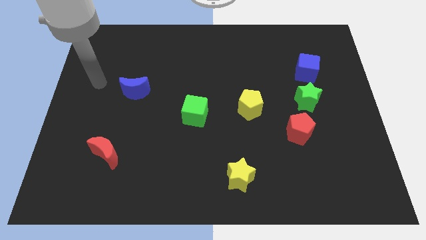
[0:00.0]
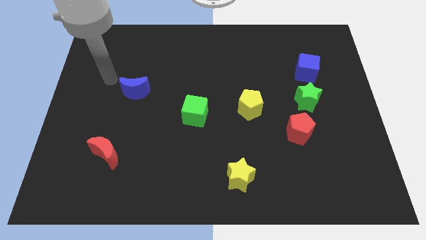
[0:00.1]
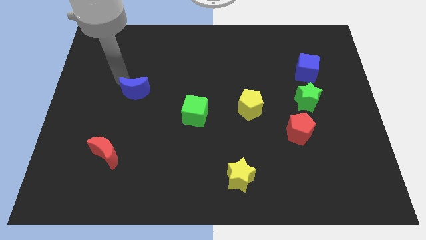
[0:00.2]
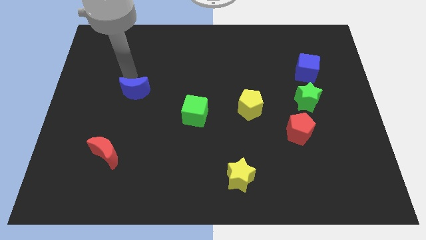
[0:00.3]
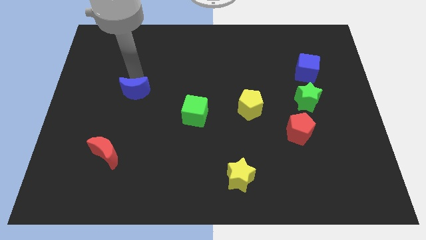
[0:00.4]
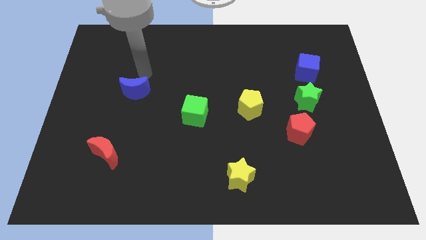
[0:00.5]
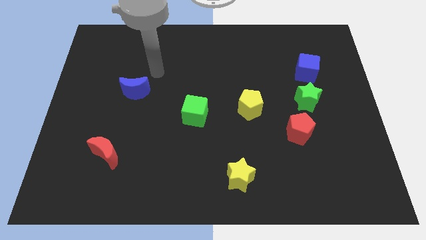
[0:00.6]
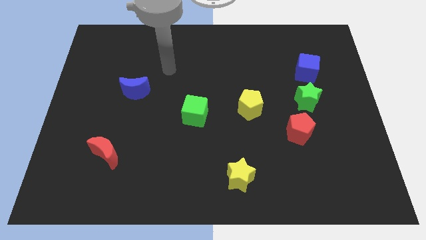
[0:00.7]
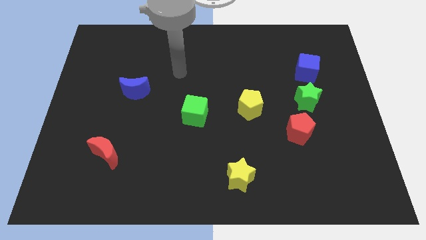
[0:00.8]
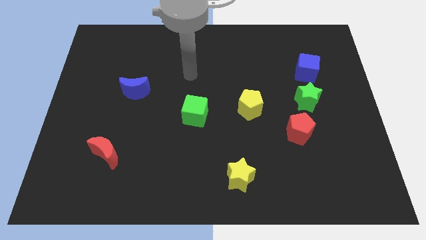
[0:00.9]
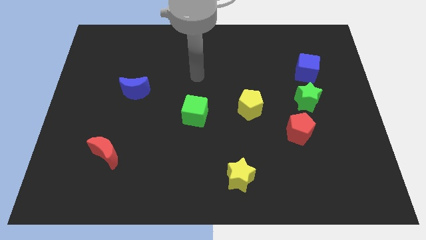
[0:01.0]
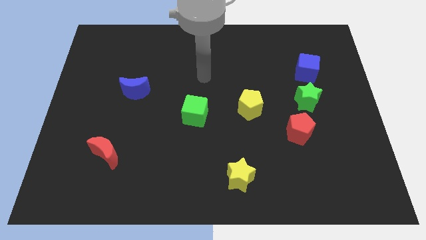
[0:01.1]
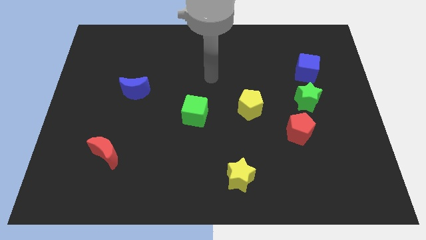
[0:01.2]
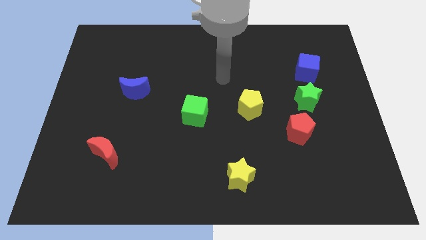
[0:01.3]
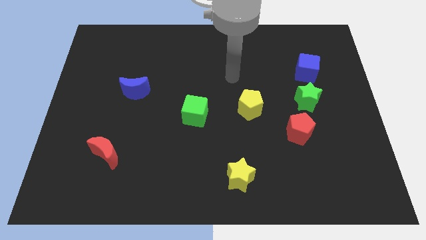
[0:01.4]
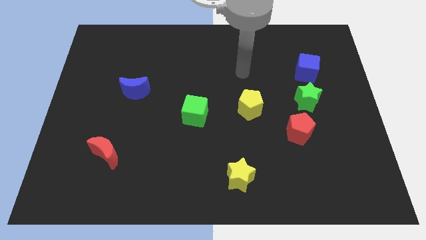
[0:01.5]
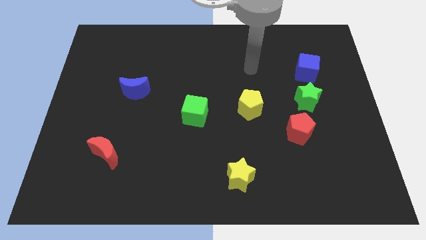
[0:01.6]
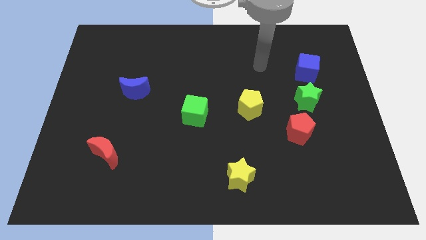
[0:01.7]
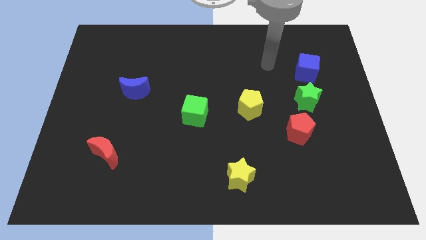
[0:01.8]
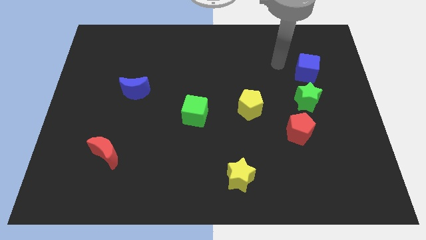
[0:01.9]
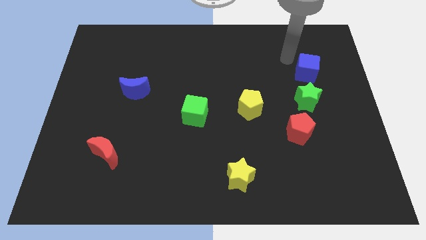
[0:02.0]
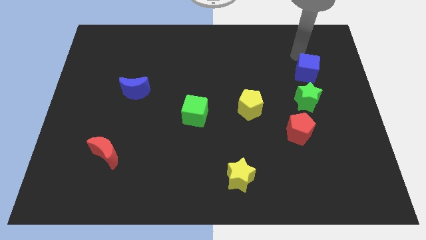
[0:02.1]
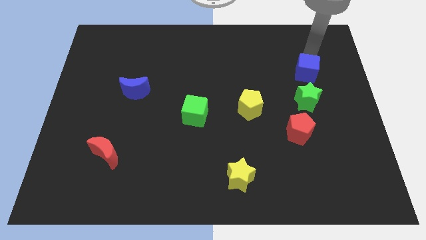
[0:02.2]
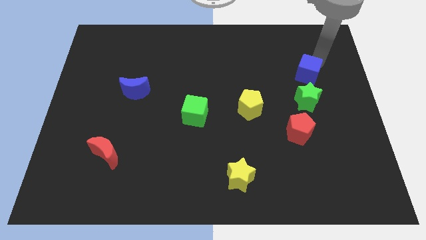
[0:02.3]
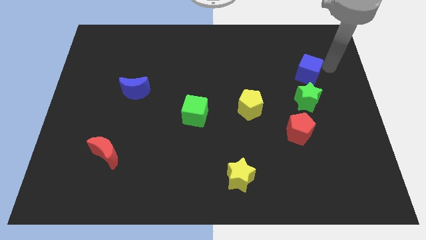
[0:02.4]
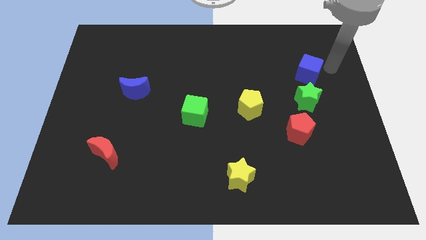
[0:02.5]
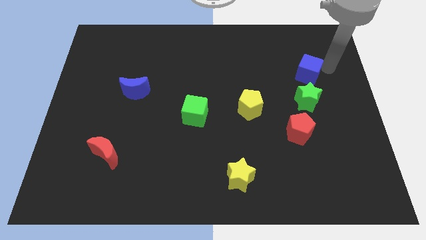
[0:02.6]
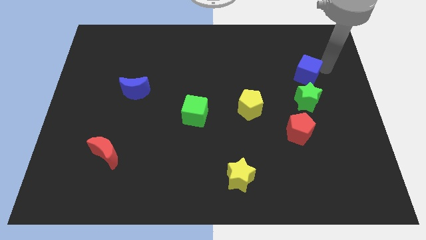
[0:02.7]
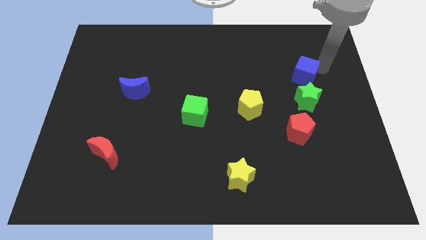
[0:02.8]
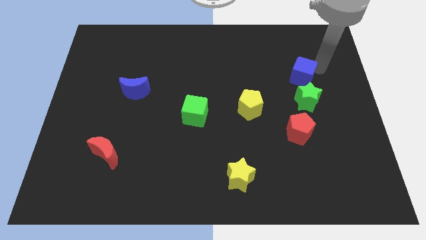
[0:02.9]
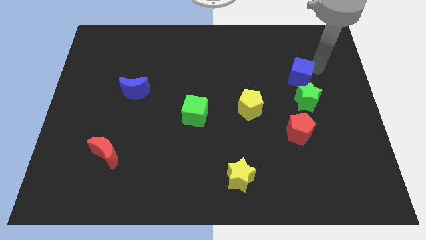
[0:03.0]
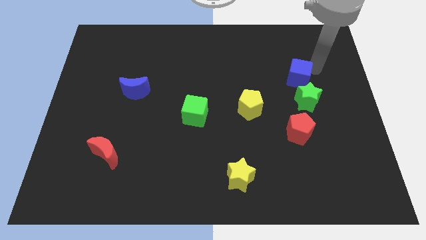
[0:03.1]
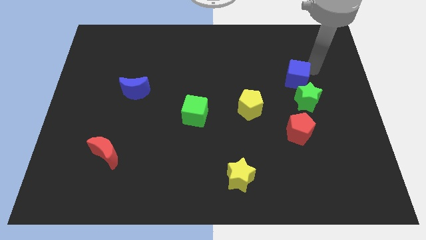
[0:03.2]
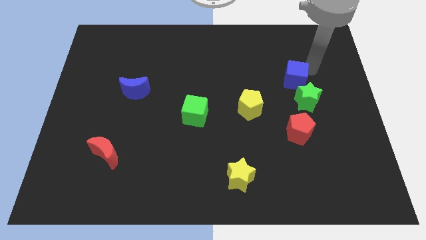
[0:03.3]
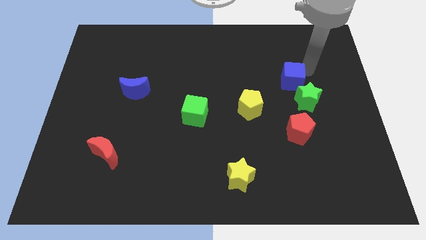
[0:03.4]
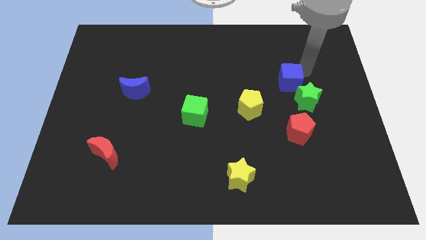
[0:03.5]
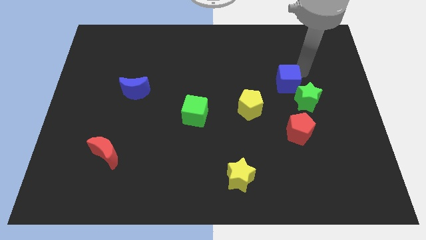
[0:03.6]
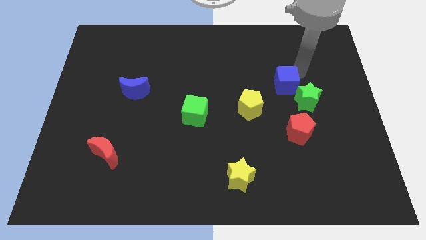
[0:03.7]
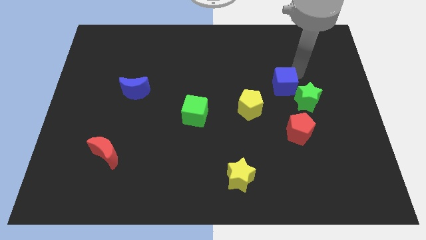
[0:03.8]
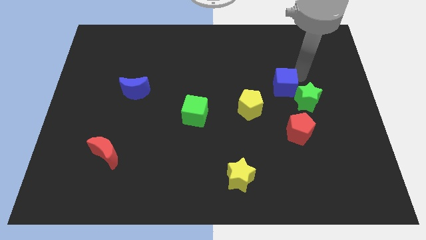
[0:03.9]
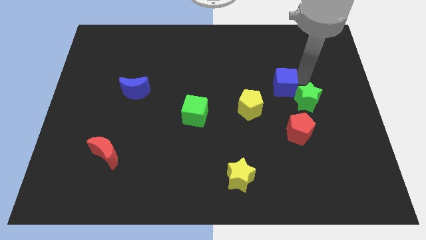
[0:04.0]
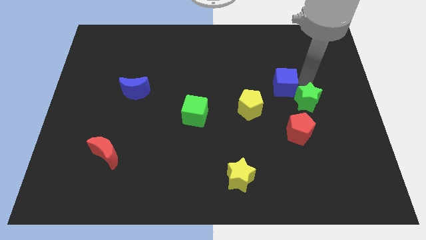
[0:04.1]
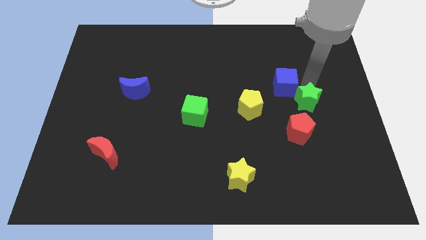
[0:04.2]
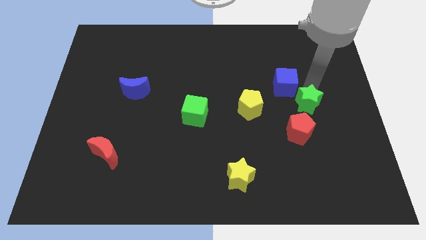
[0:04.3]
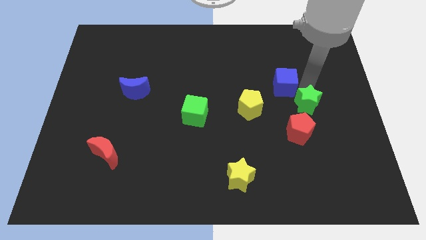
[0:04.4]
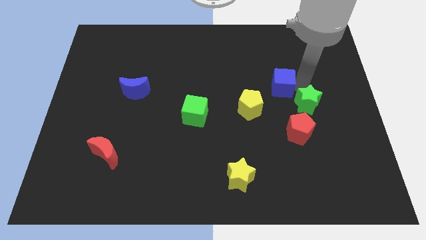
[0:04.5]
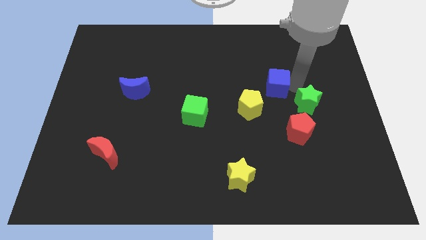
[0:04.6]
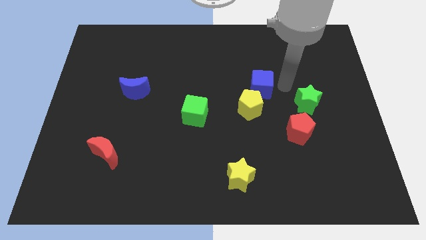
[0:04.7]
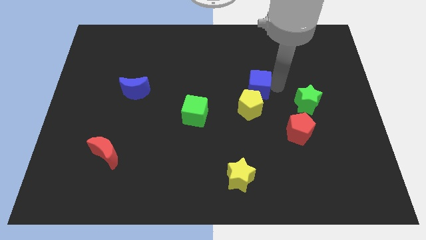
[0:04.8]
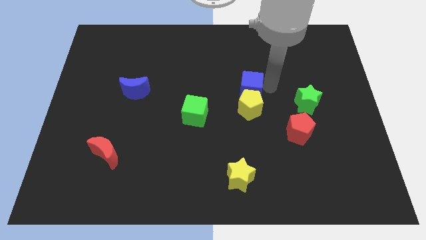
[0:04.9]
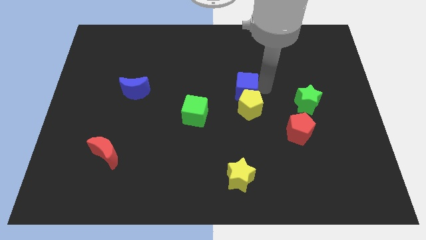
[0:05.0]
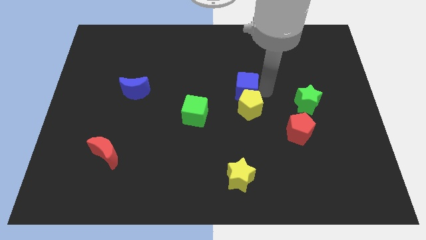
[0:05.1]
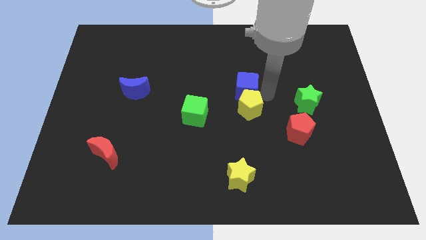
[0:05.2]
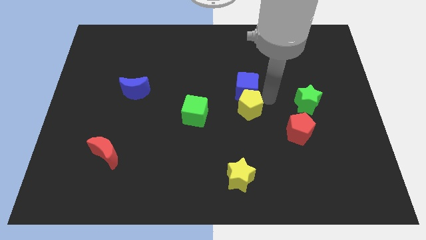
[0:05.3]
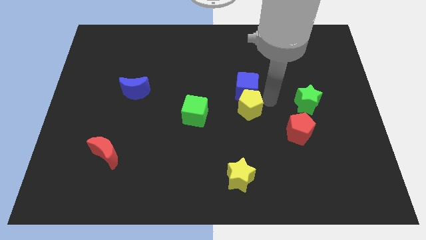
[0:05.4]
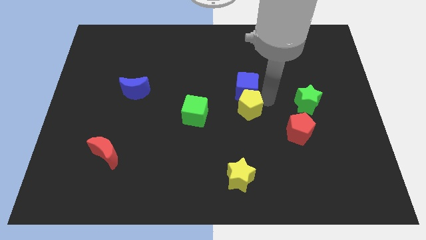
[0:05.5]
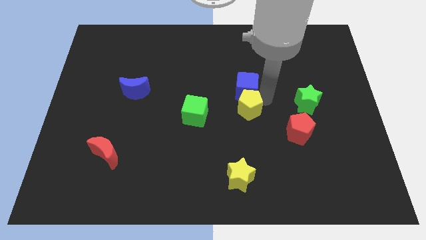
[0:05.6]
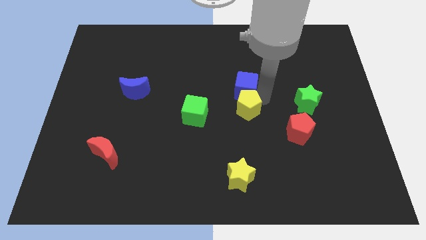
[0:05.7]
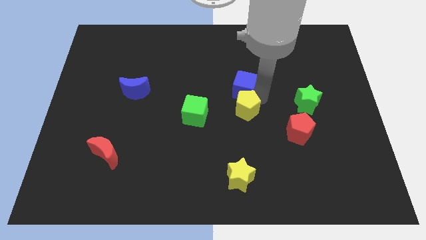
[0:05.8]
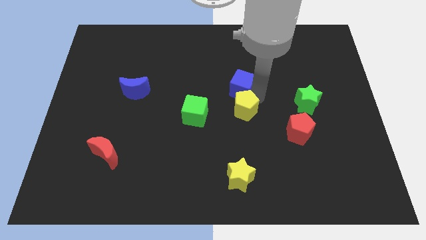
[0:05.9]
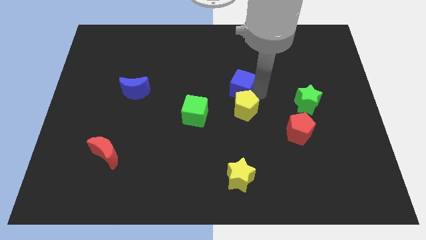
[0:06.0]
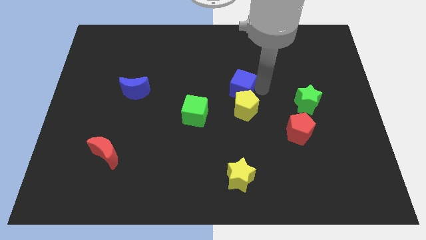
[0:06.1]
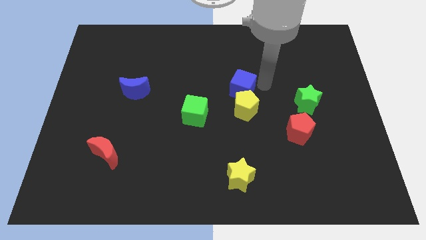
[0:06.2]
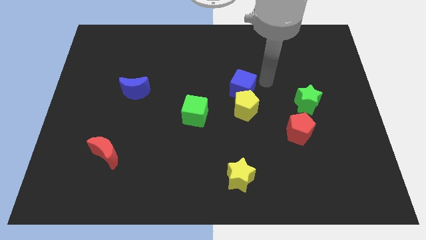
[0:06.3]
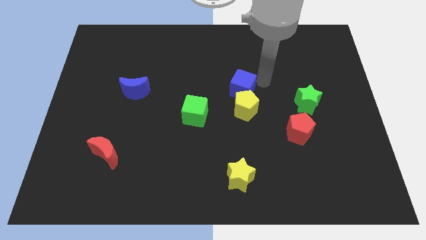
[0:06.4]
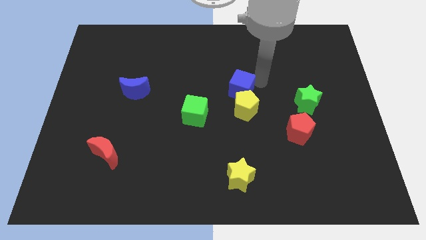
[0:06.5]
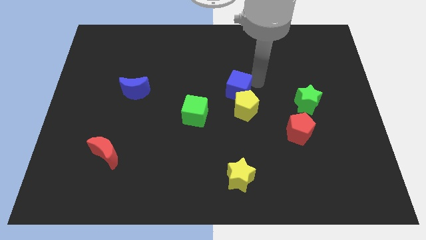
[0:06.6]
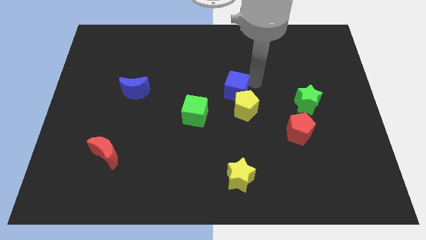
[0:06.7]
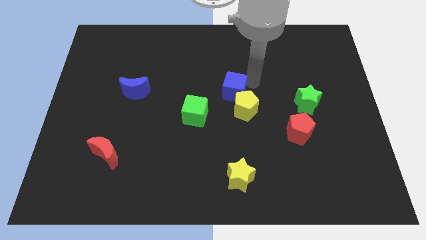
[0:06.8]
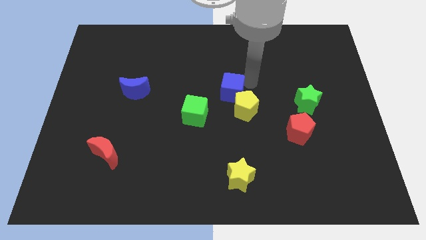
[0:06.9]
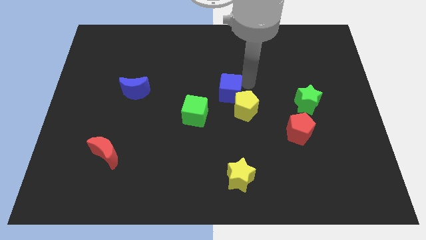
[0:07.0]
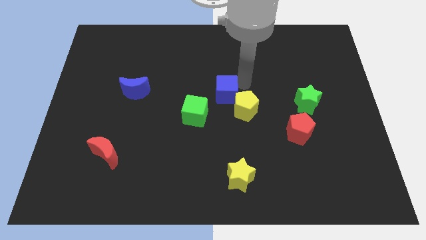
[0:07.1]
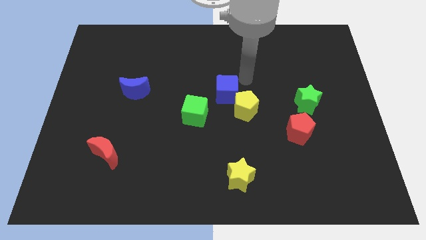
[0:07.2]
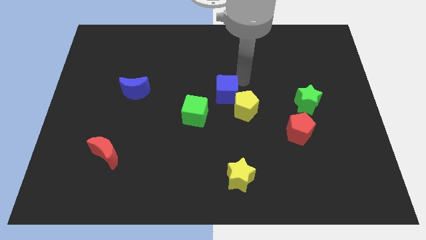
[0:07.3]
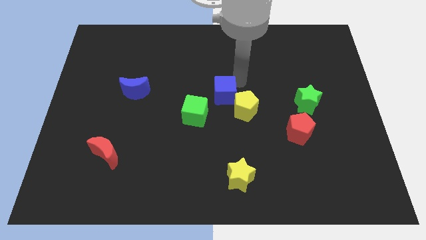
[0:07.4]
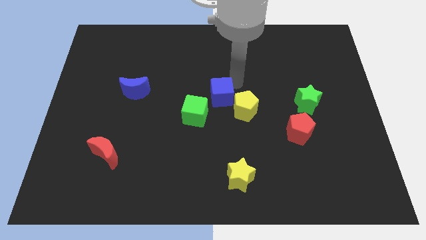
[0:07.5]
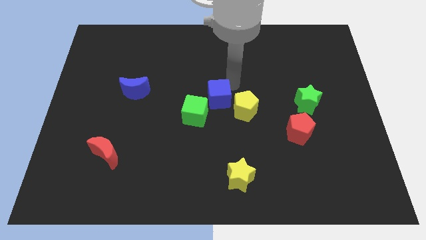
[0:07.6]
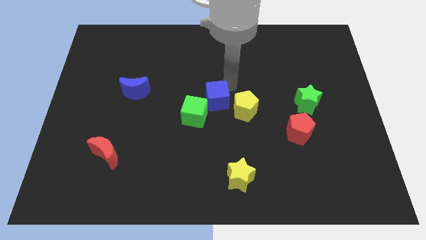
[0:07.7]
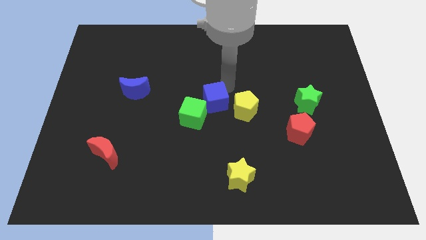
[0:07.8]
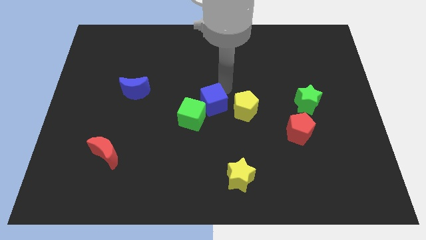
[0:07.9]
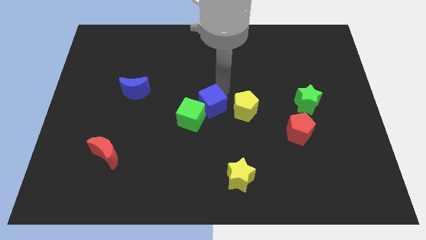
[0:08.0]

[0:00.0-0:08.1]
push the blue cube to the green cube
